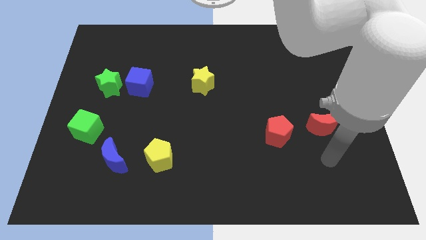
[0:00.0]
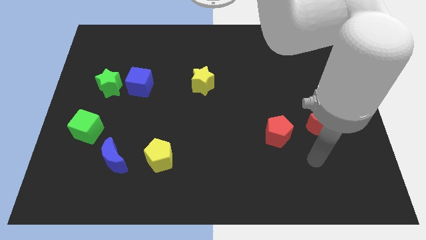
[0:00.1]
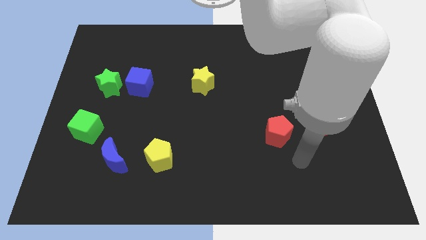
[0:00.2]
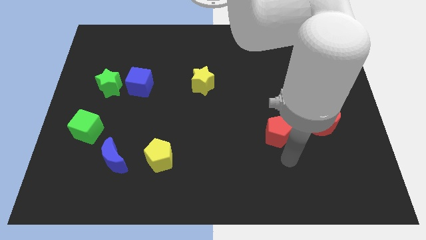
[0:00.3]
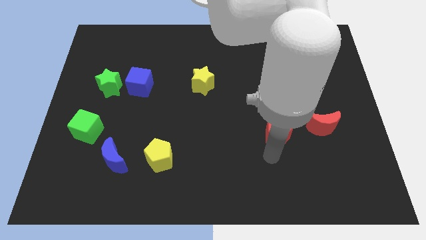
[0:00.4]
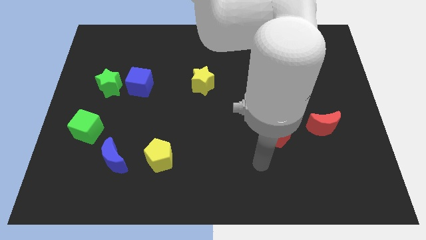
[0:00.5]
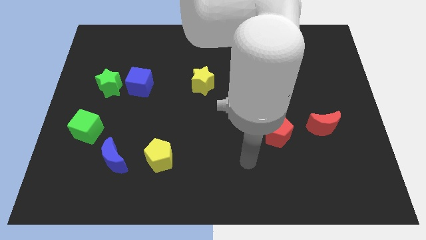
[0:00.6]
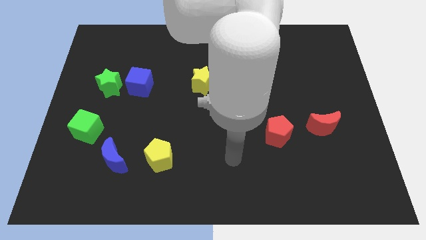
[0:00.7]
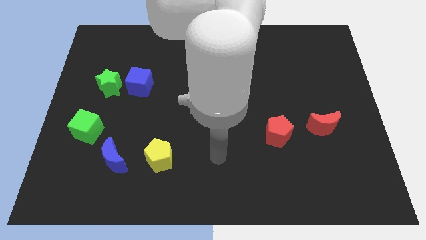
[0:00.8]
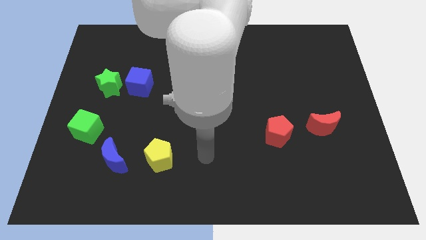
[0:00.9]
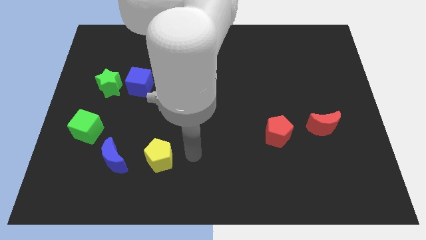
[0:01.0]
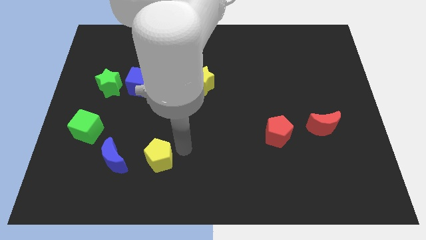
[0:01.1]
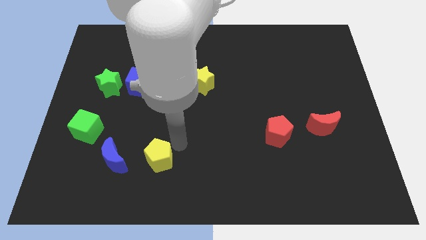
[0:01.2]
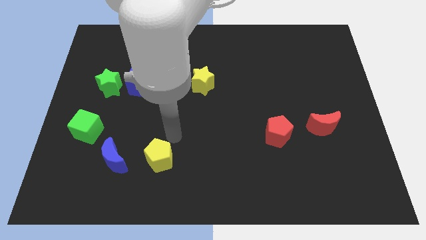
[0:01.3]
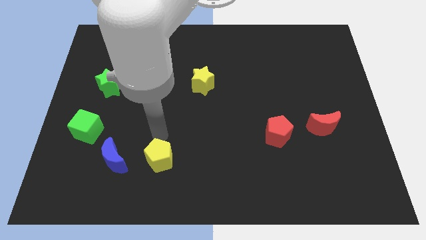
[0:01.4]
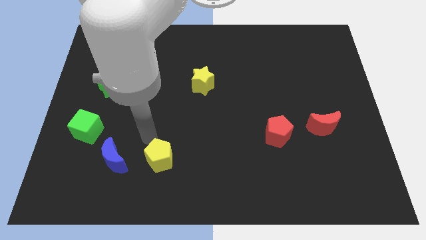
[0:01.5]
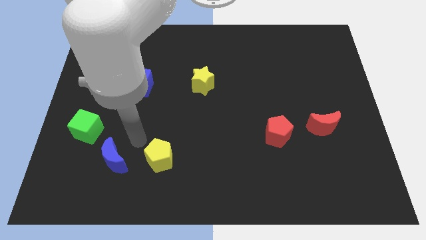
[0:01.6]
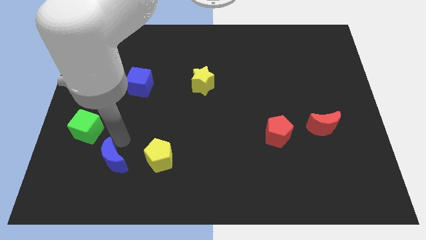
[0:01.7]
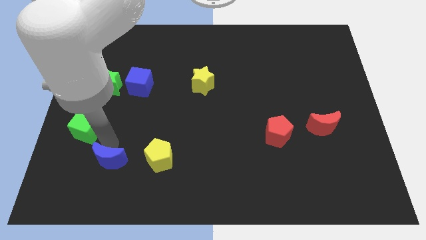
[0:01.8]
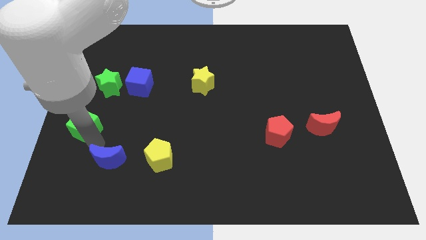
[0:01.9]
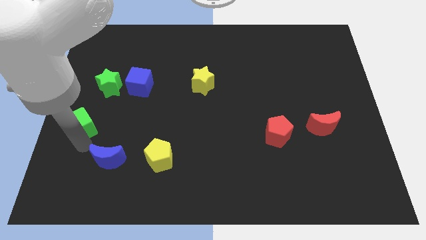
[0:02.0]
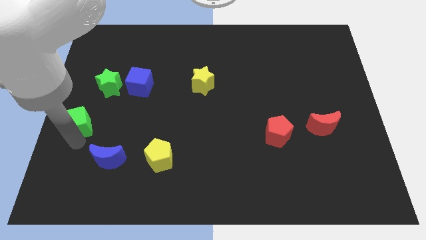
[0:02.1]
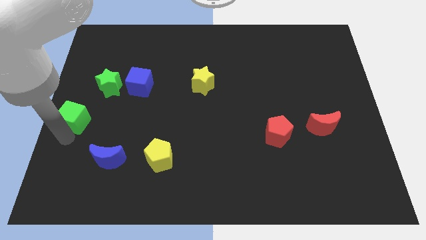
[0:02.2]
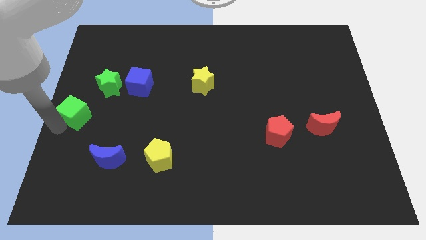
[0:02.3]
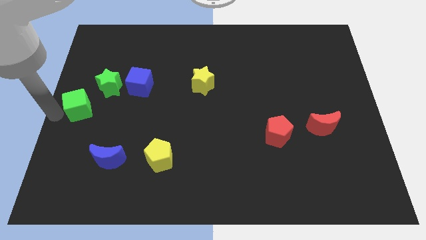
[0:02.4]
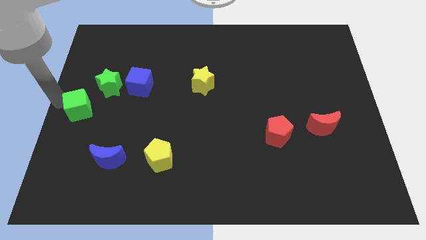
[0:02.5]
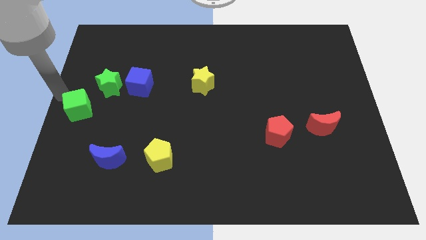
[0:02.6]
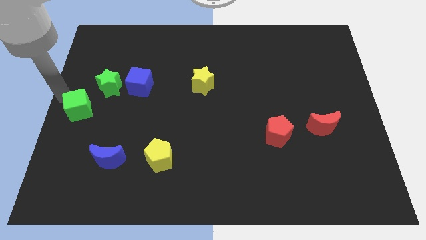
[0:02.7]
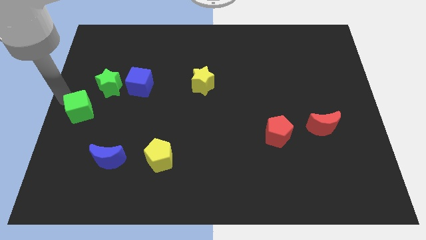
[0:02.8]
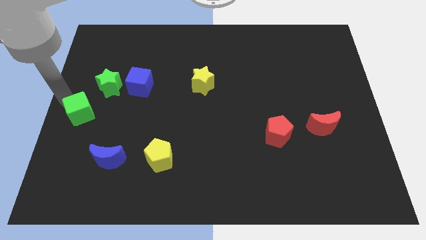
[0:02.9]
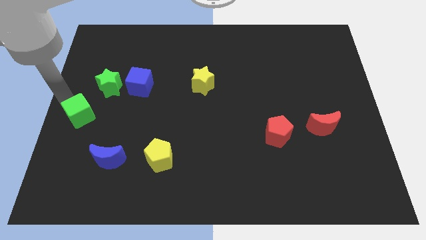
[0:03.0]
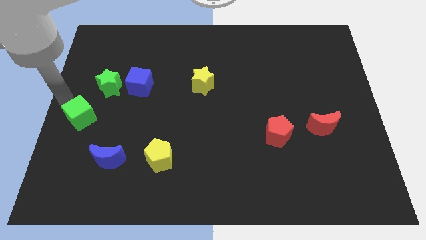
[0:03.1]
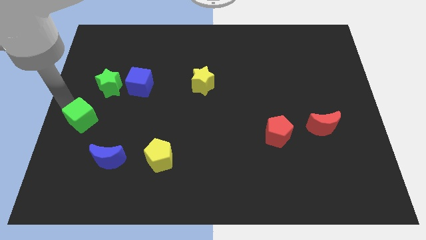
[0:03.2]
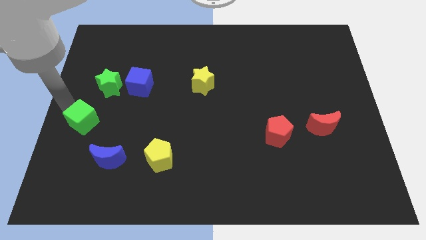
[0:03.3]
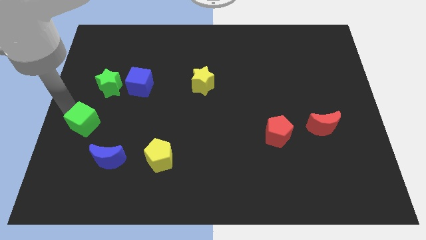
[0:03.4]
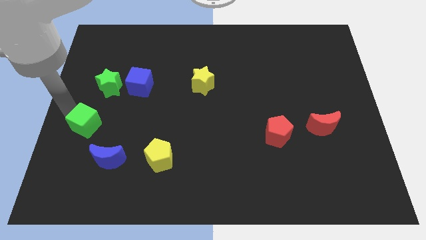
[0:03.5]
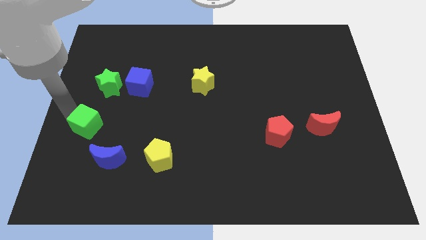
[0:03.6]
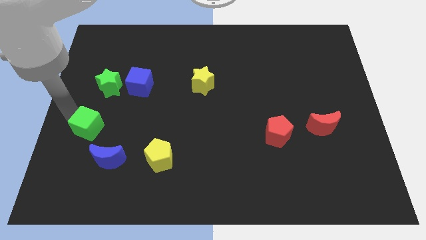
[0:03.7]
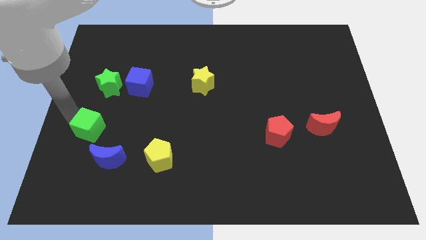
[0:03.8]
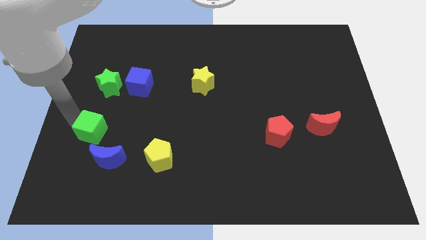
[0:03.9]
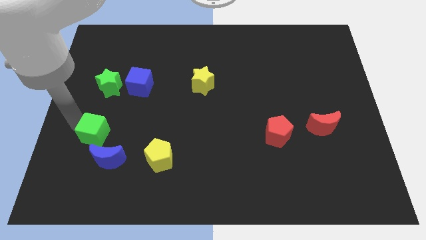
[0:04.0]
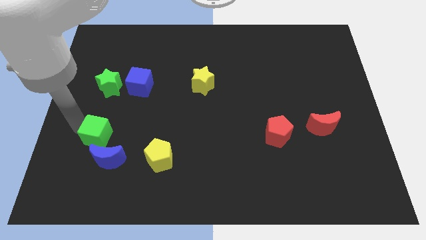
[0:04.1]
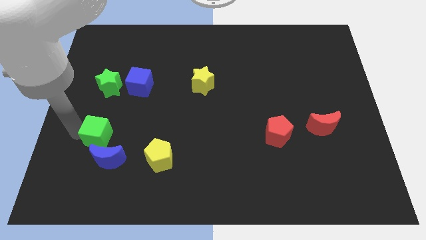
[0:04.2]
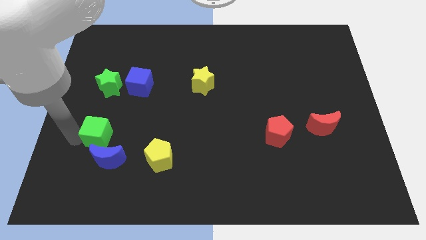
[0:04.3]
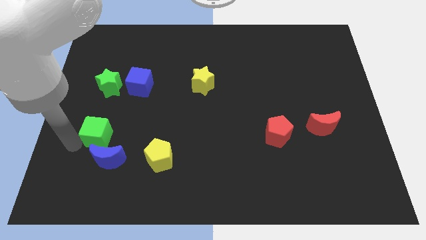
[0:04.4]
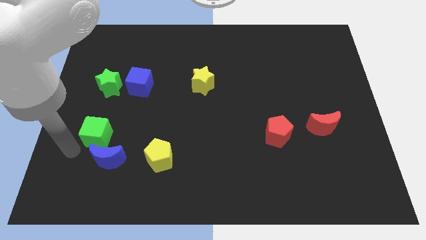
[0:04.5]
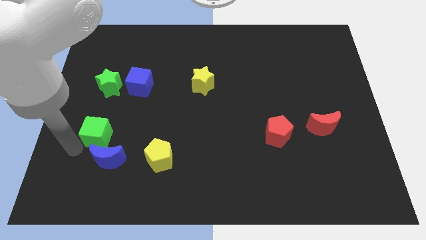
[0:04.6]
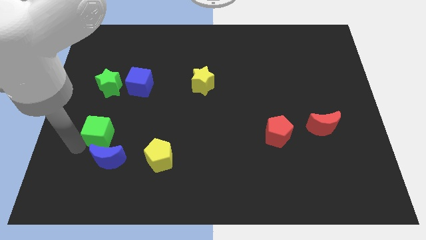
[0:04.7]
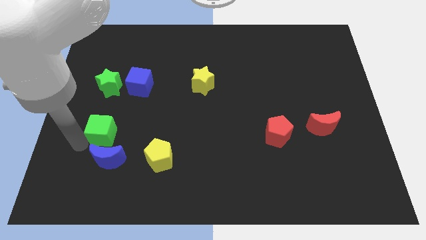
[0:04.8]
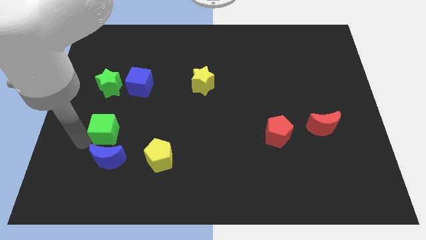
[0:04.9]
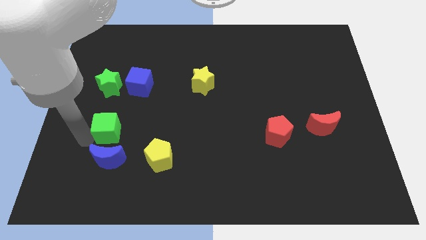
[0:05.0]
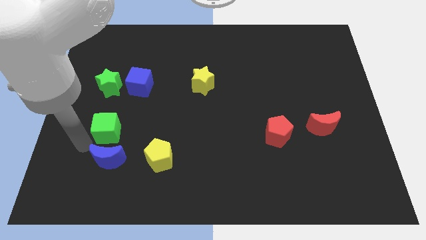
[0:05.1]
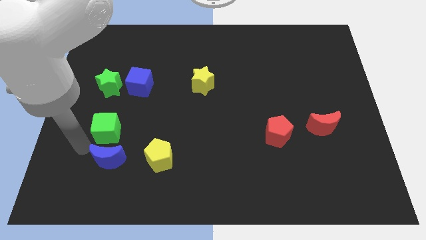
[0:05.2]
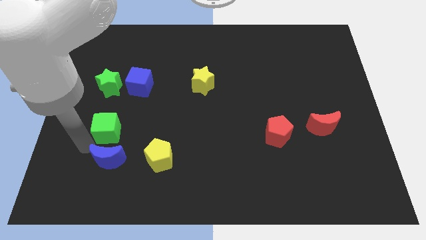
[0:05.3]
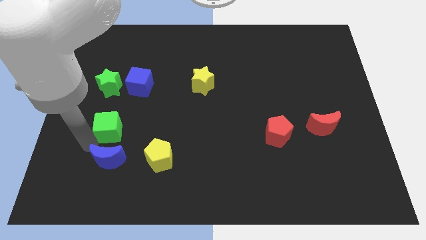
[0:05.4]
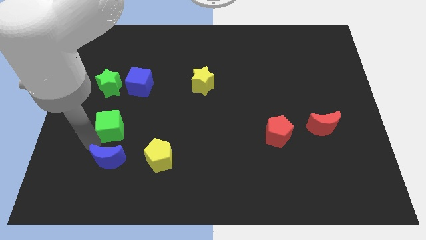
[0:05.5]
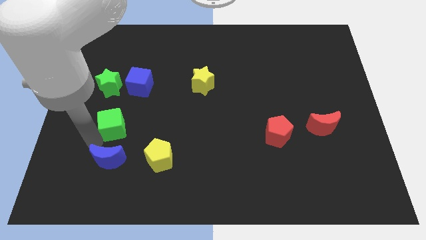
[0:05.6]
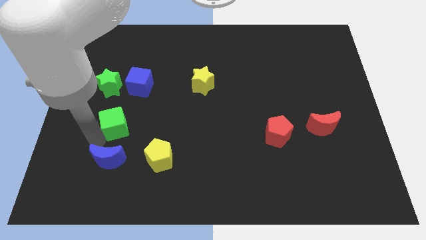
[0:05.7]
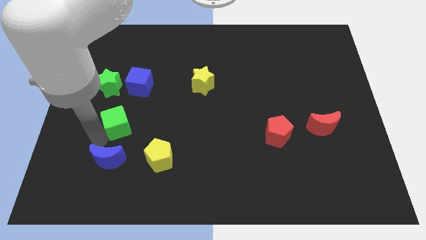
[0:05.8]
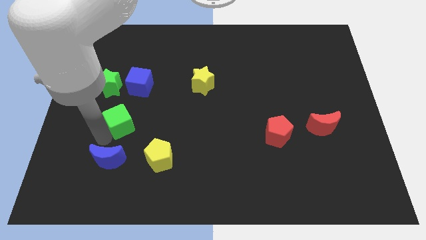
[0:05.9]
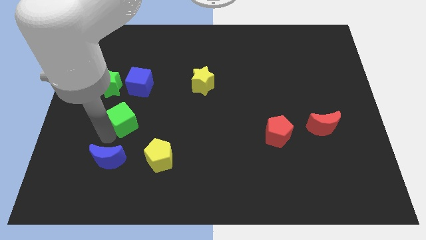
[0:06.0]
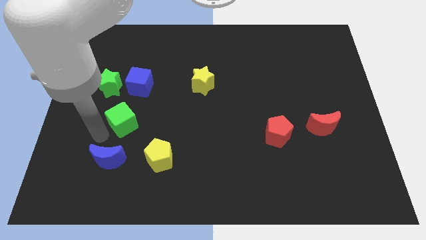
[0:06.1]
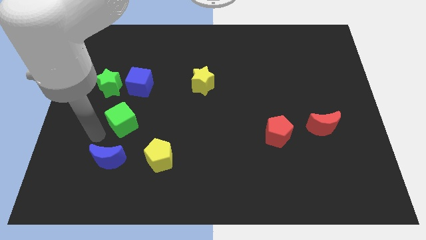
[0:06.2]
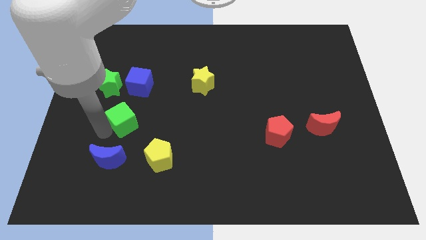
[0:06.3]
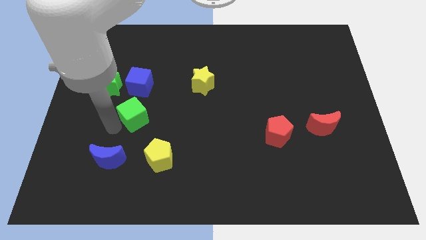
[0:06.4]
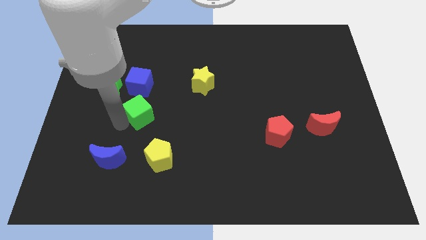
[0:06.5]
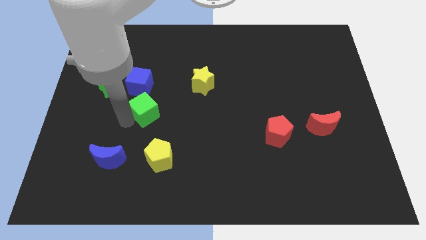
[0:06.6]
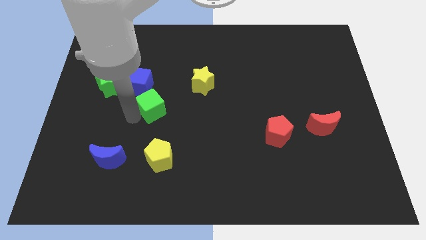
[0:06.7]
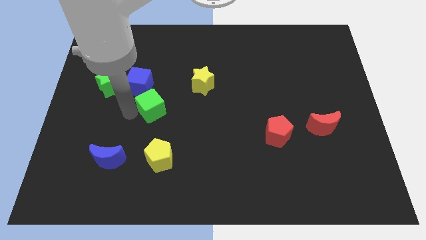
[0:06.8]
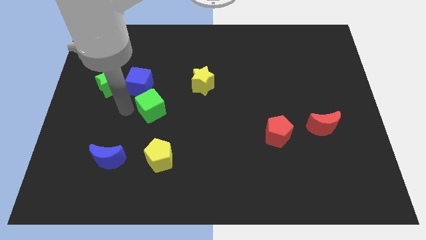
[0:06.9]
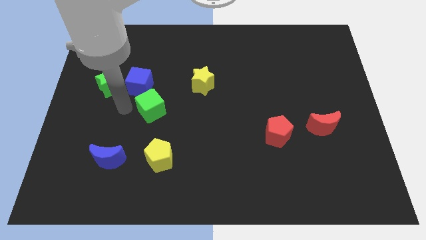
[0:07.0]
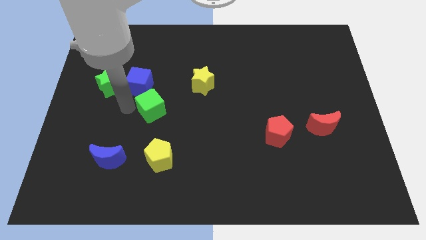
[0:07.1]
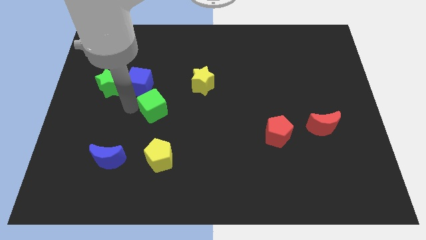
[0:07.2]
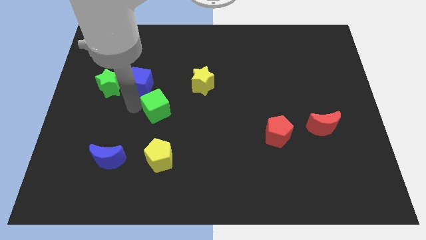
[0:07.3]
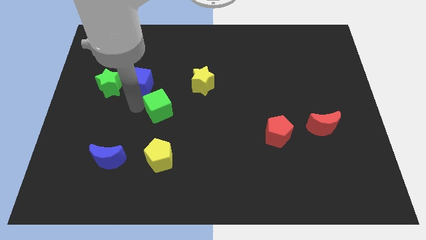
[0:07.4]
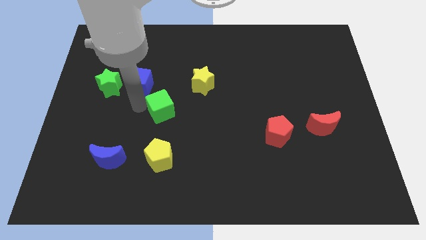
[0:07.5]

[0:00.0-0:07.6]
slide the green cube to the center of the board
